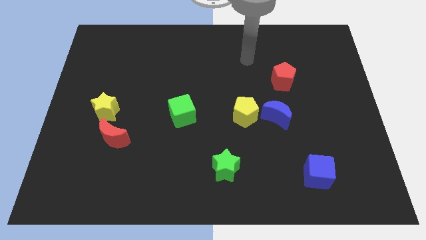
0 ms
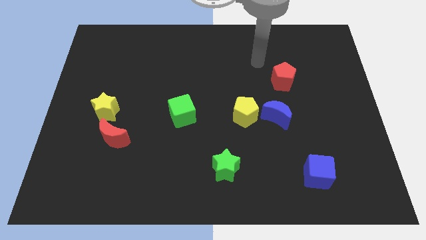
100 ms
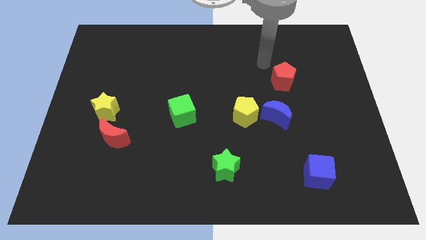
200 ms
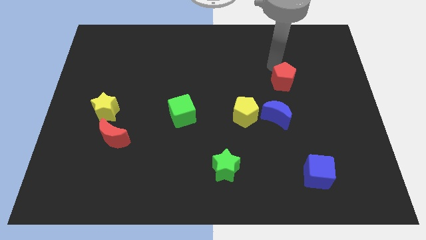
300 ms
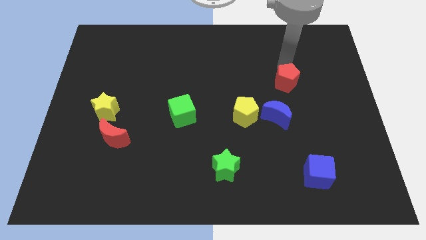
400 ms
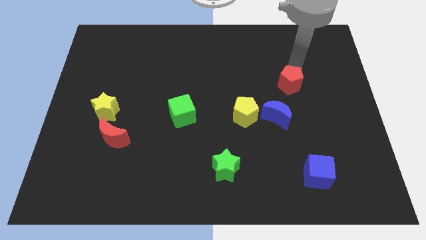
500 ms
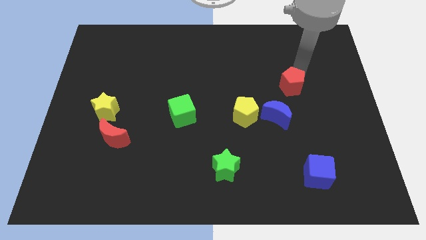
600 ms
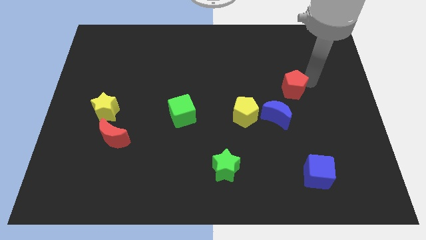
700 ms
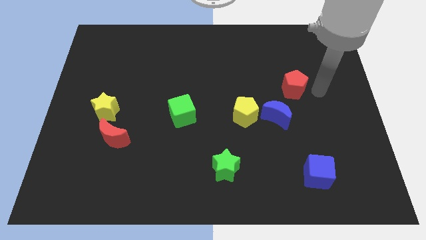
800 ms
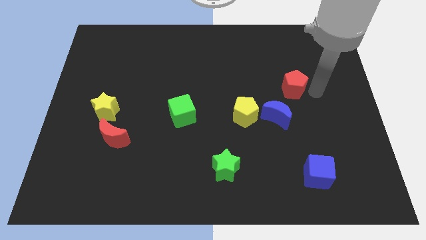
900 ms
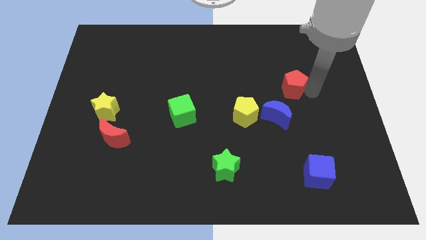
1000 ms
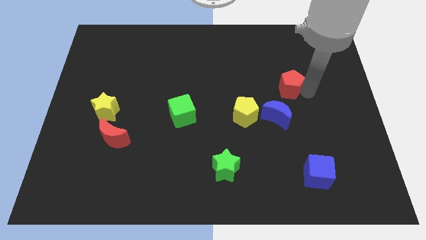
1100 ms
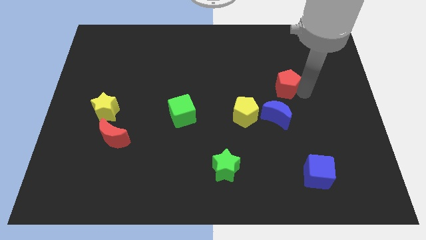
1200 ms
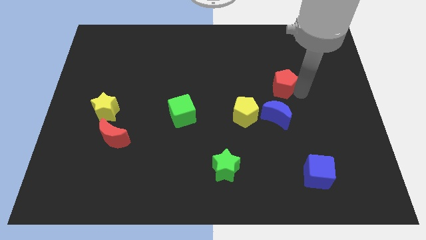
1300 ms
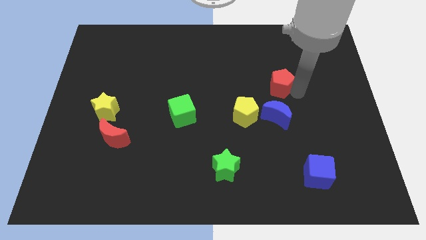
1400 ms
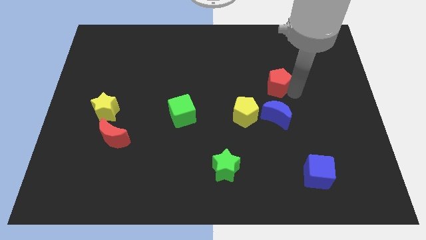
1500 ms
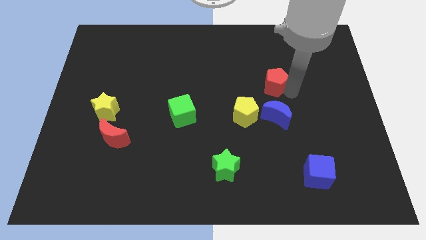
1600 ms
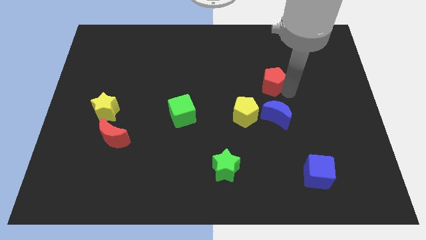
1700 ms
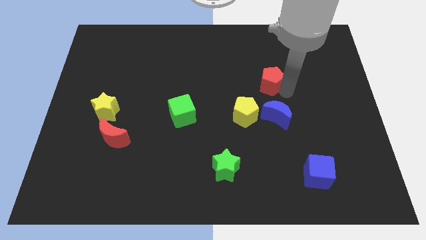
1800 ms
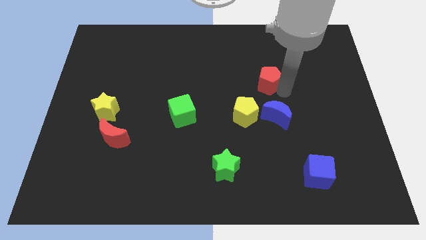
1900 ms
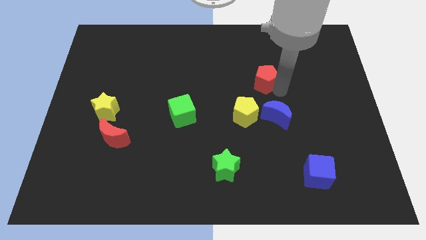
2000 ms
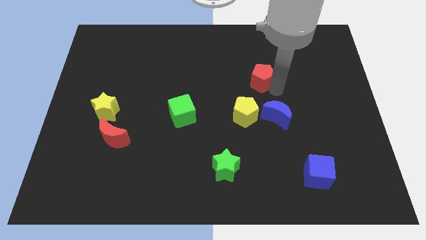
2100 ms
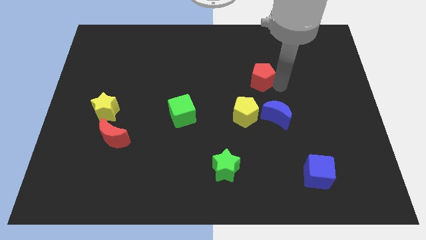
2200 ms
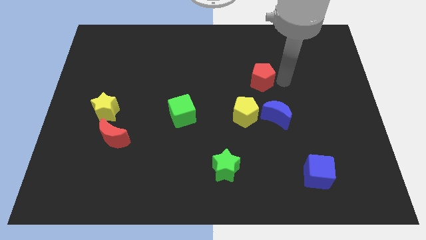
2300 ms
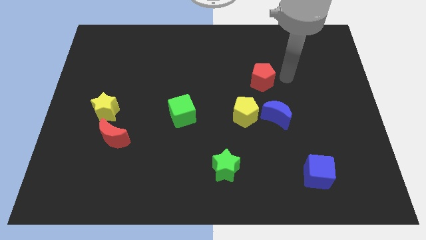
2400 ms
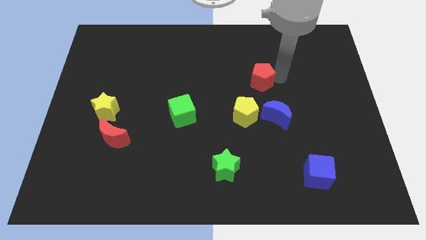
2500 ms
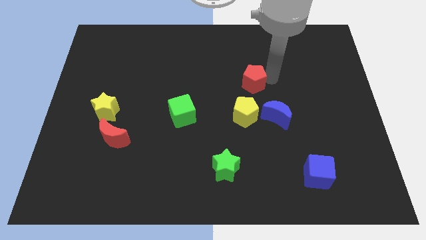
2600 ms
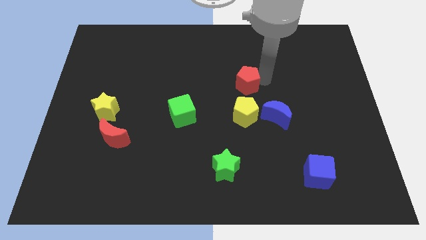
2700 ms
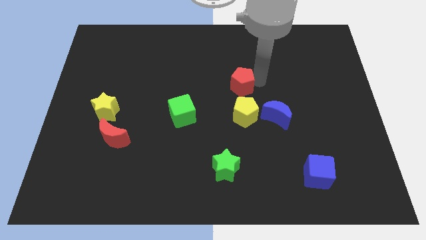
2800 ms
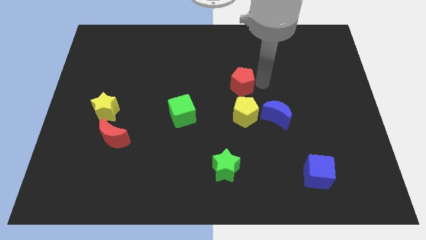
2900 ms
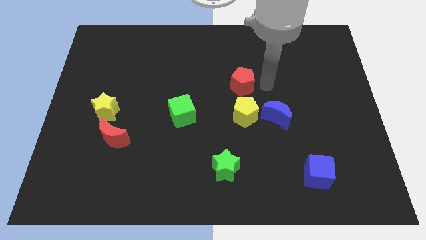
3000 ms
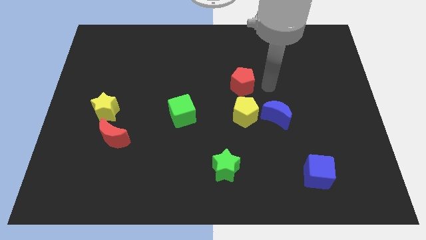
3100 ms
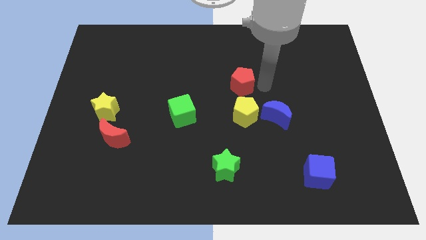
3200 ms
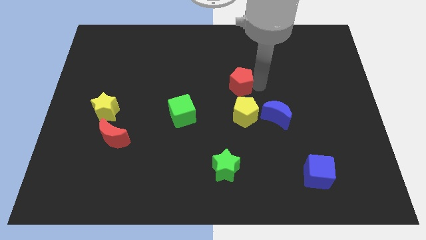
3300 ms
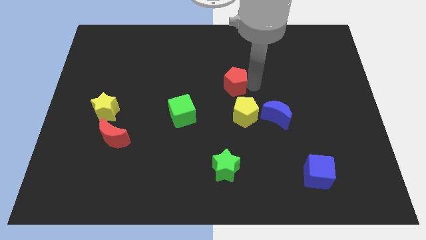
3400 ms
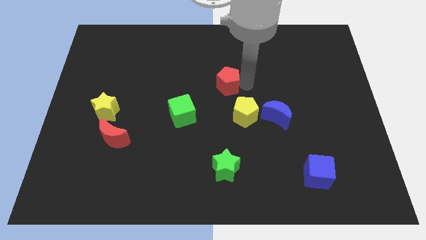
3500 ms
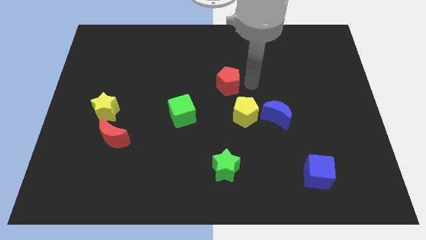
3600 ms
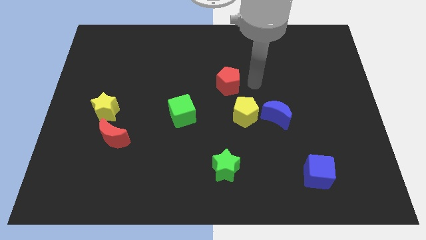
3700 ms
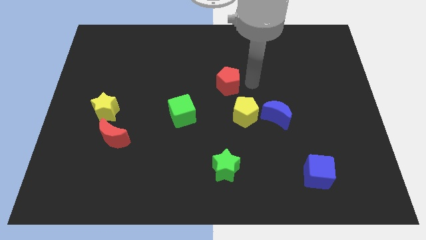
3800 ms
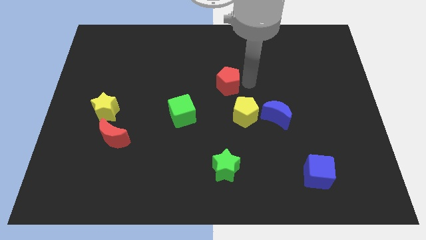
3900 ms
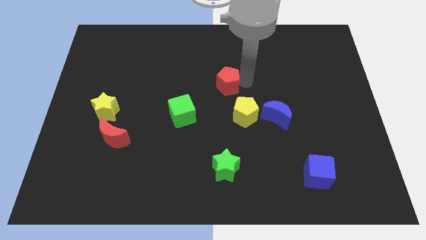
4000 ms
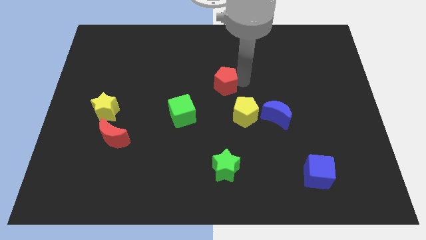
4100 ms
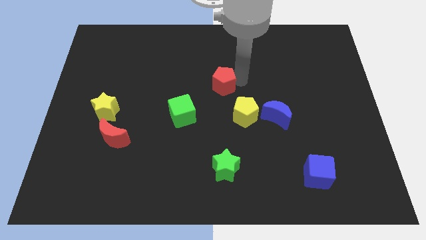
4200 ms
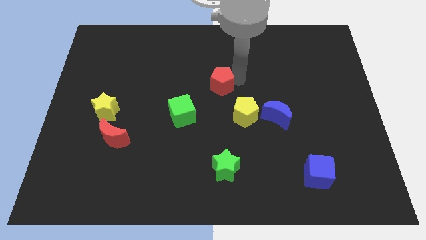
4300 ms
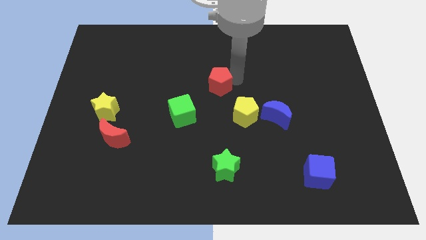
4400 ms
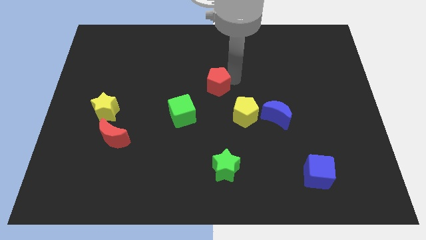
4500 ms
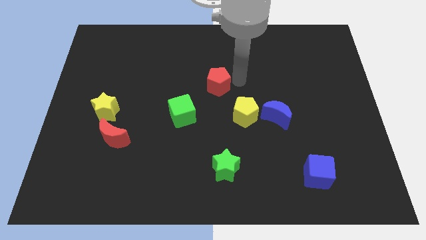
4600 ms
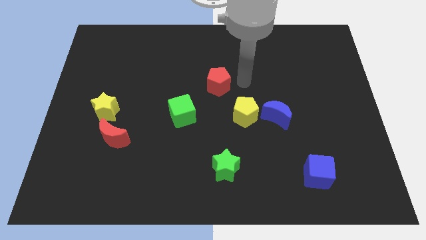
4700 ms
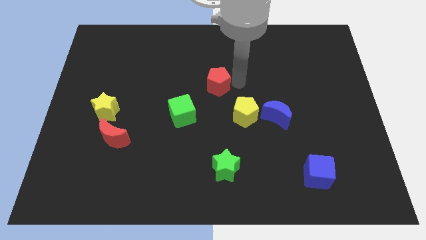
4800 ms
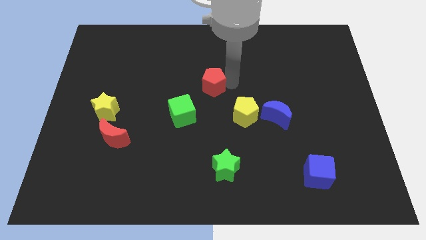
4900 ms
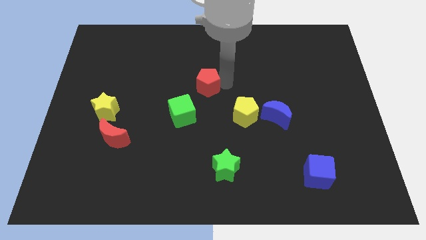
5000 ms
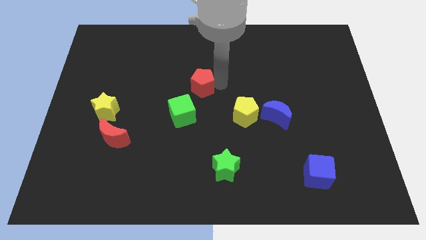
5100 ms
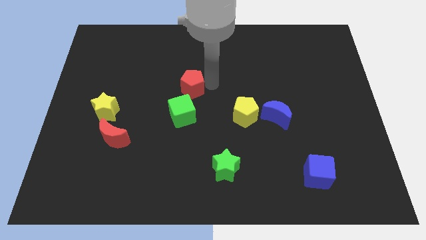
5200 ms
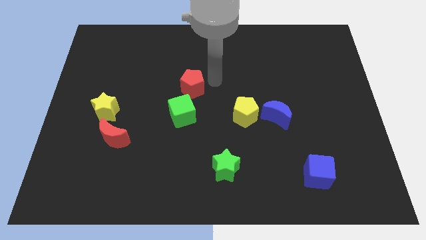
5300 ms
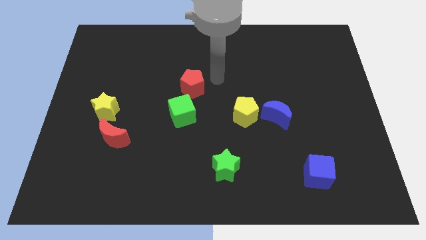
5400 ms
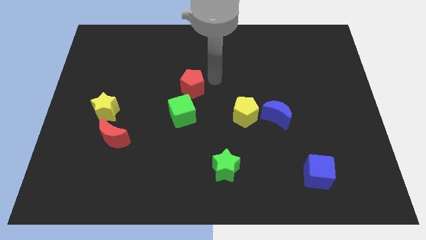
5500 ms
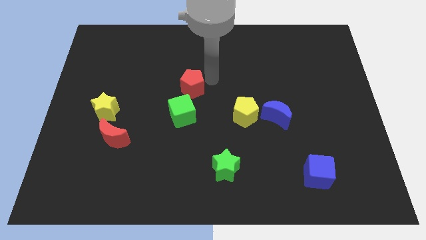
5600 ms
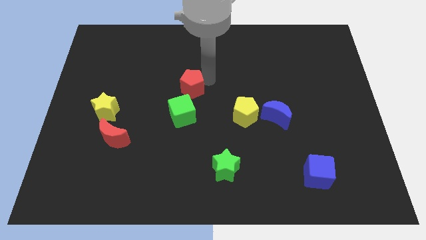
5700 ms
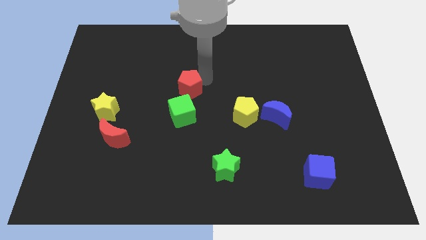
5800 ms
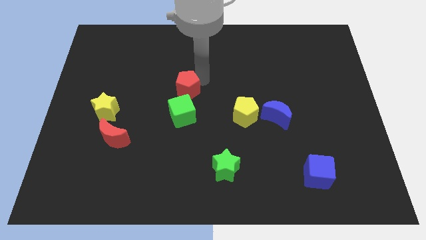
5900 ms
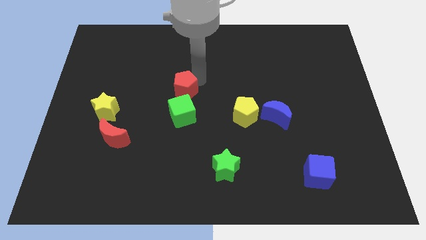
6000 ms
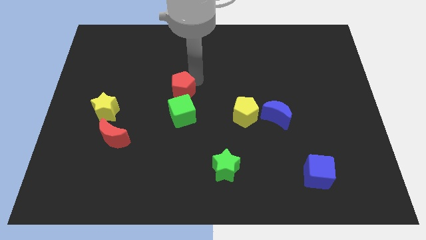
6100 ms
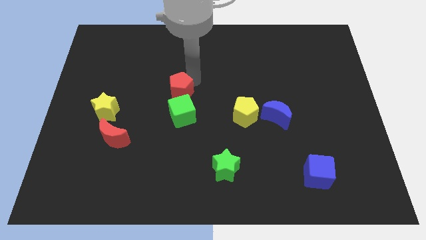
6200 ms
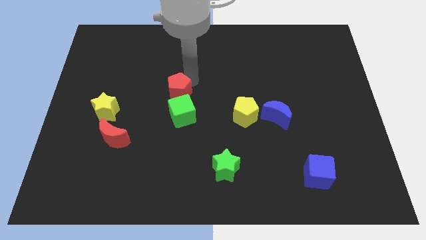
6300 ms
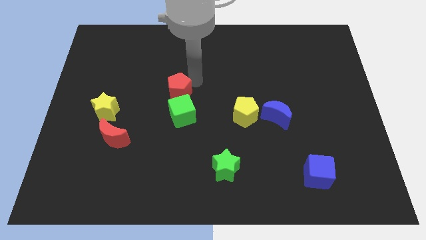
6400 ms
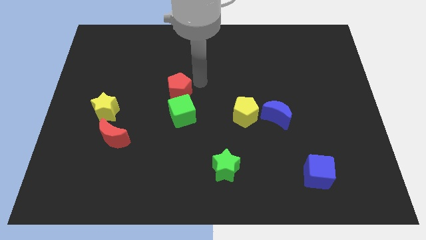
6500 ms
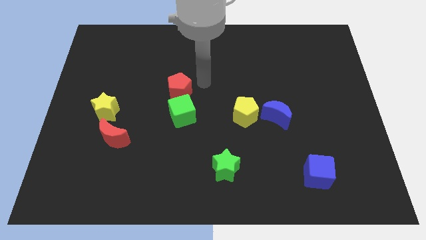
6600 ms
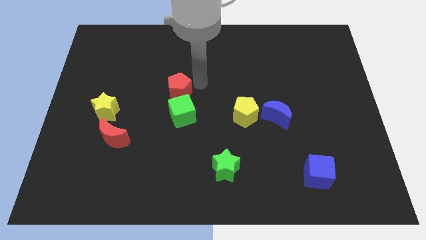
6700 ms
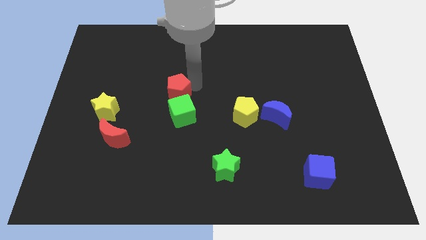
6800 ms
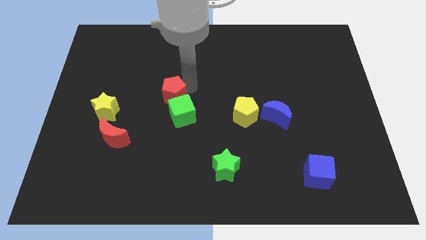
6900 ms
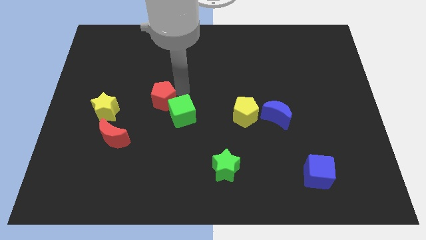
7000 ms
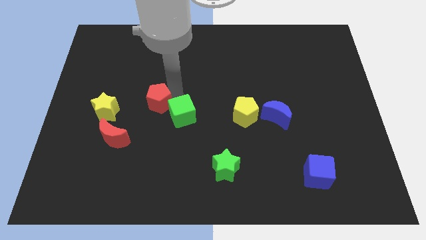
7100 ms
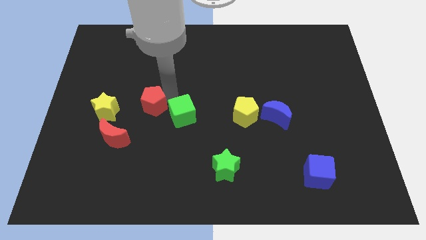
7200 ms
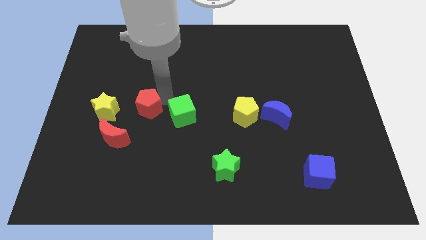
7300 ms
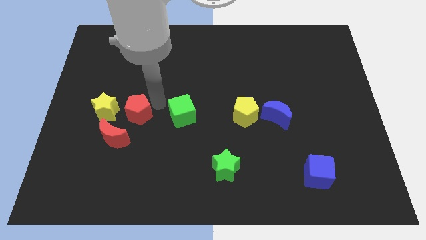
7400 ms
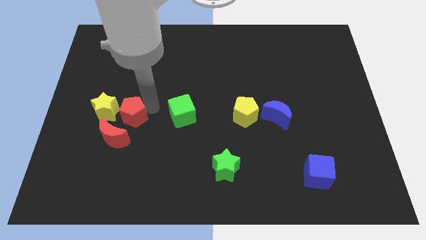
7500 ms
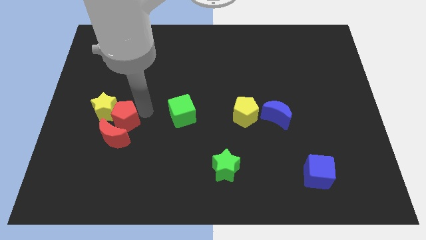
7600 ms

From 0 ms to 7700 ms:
slide the red pentagon next to the yellow star

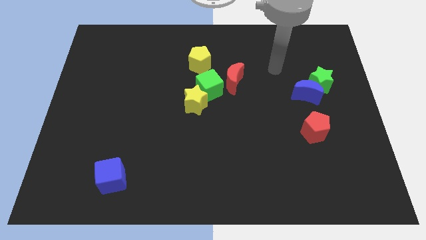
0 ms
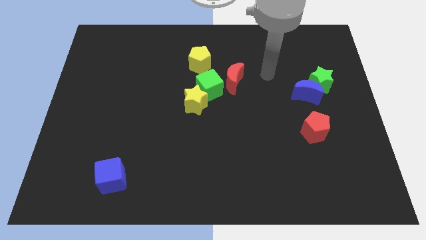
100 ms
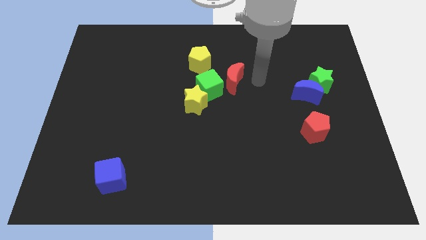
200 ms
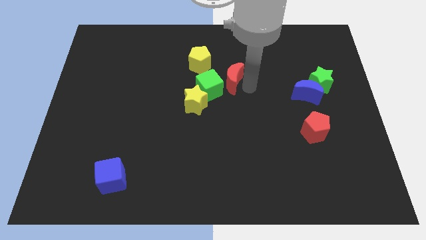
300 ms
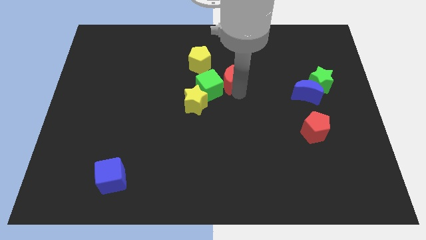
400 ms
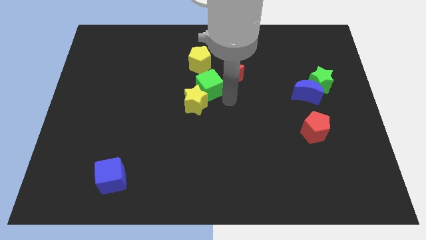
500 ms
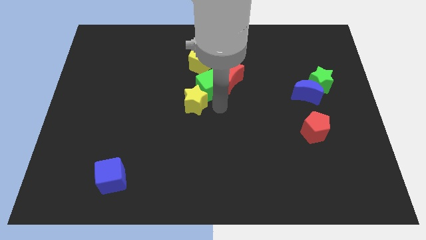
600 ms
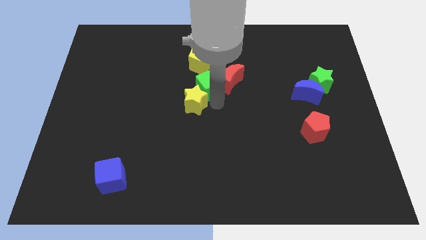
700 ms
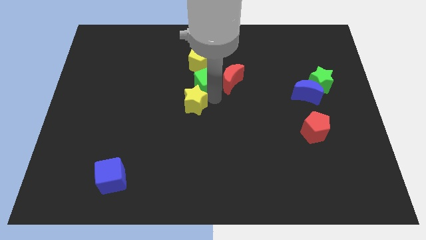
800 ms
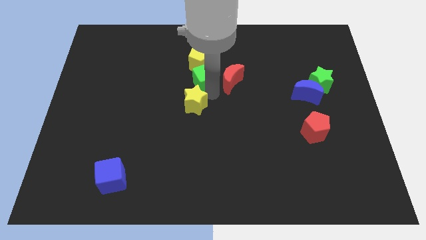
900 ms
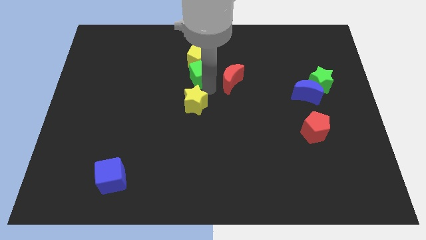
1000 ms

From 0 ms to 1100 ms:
move the green cube close to the yellow pentagon
